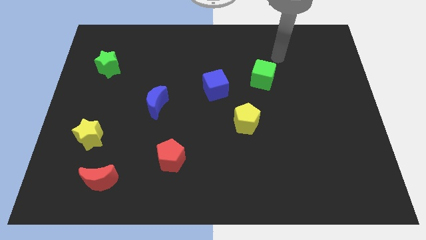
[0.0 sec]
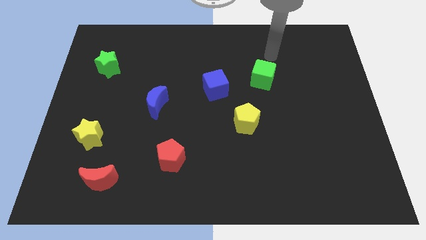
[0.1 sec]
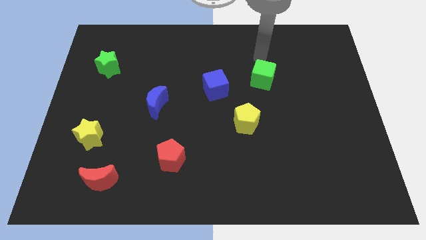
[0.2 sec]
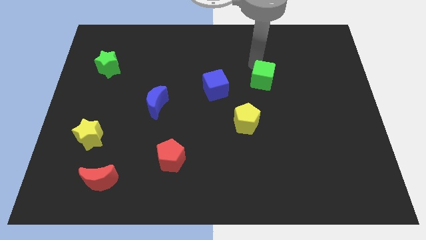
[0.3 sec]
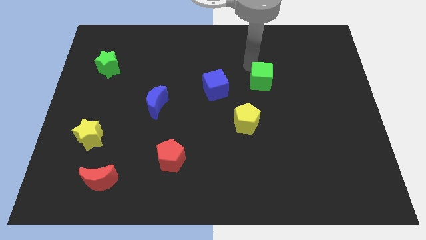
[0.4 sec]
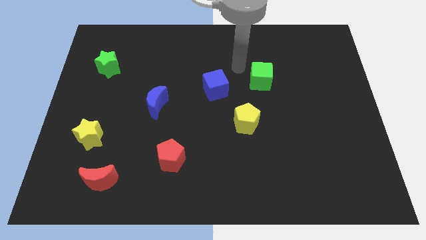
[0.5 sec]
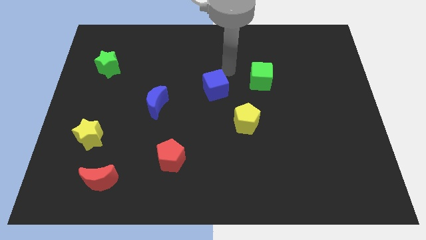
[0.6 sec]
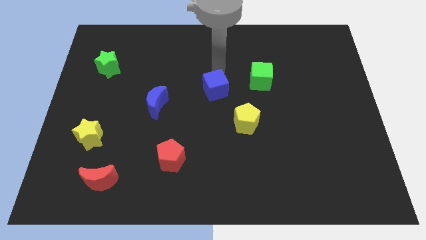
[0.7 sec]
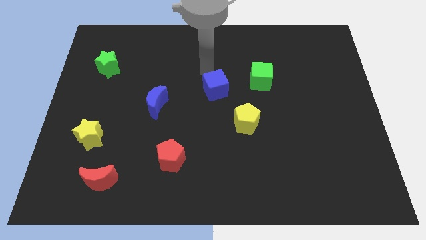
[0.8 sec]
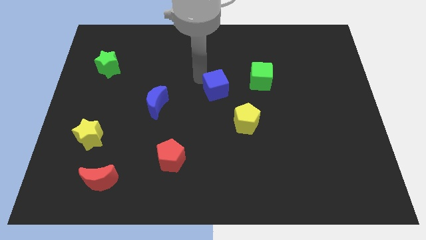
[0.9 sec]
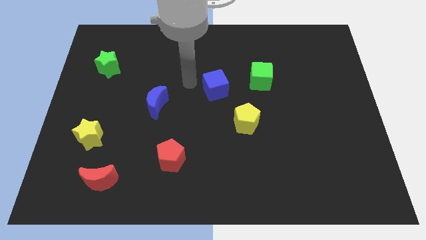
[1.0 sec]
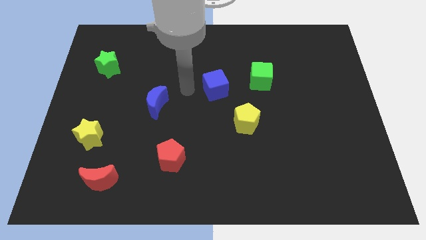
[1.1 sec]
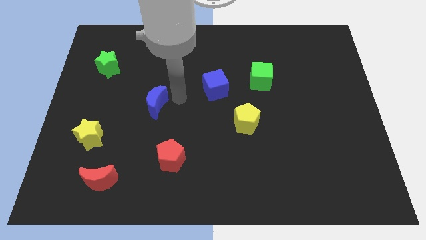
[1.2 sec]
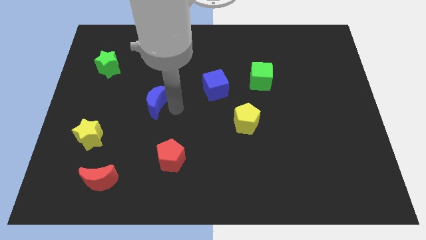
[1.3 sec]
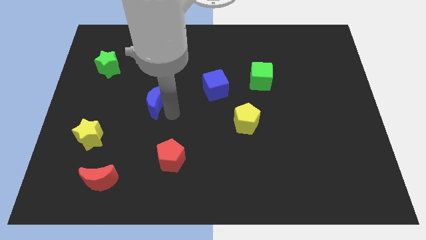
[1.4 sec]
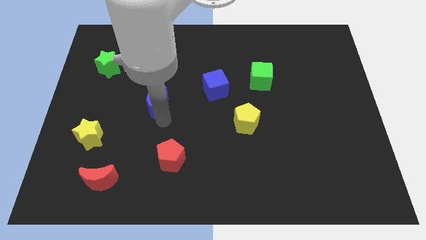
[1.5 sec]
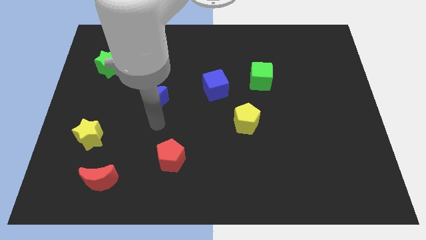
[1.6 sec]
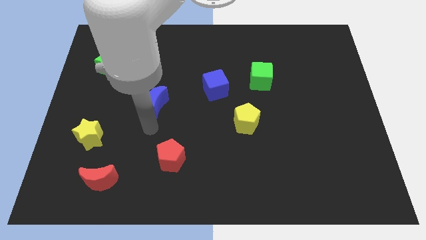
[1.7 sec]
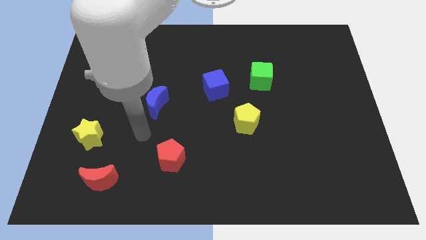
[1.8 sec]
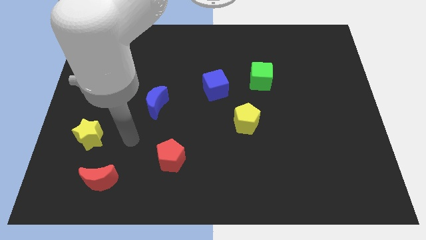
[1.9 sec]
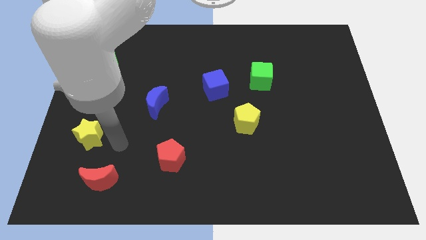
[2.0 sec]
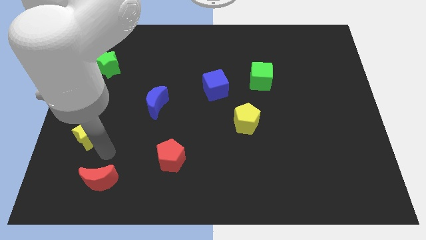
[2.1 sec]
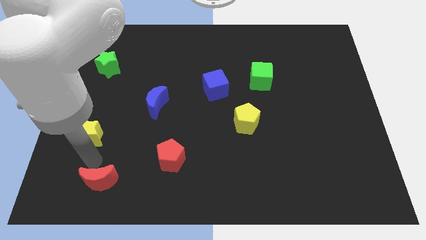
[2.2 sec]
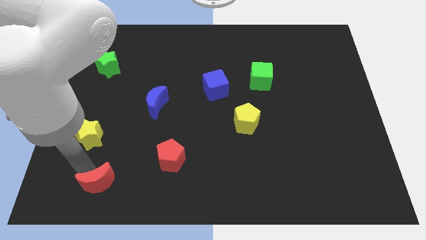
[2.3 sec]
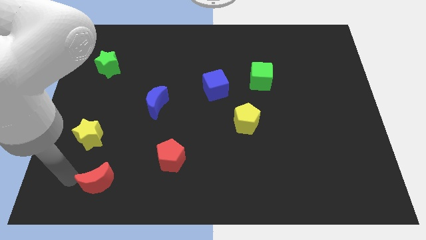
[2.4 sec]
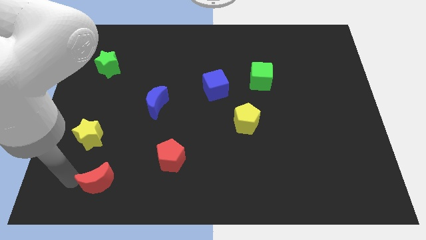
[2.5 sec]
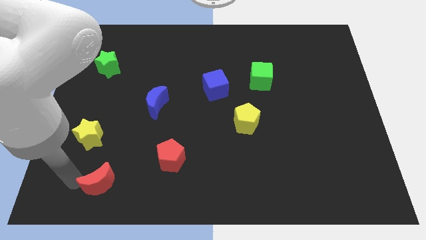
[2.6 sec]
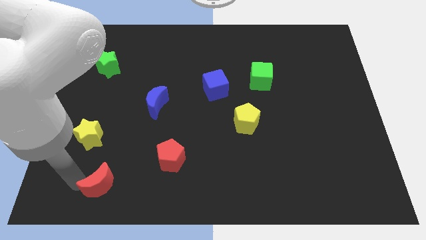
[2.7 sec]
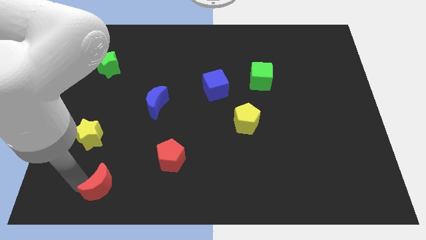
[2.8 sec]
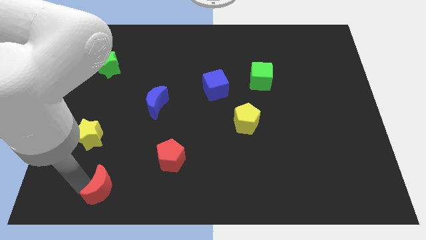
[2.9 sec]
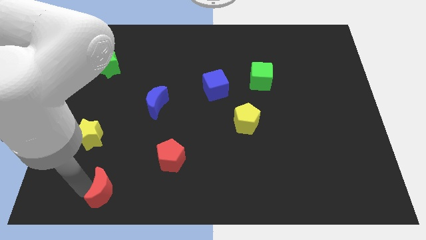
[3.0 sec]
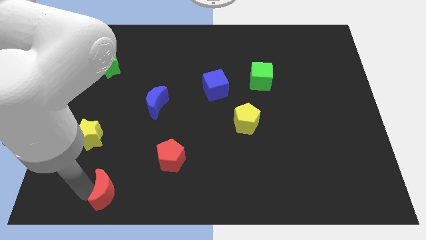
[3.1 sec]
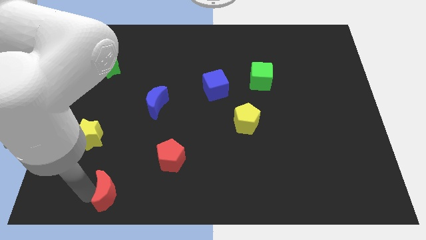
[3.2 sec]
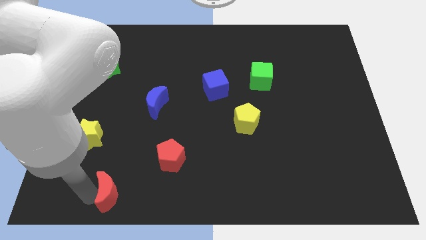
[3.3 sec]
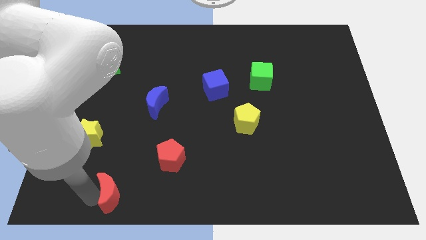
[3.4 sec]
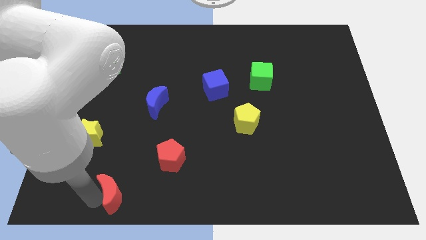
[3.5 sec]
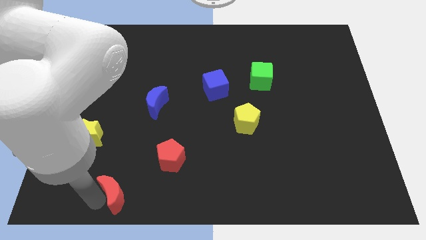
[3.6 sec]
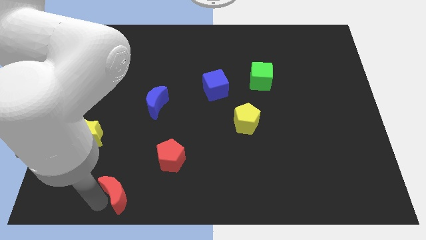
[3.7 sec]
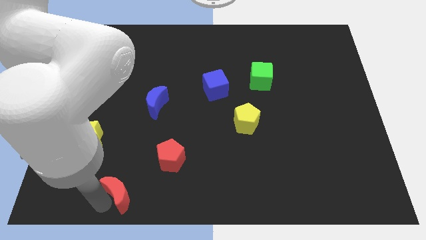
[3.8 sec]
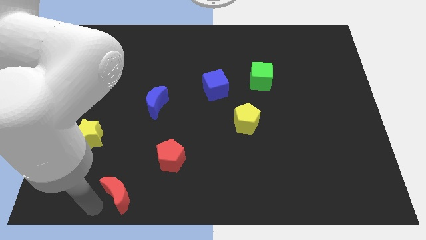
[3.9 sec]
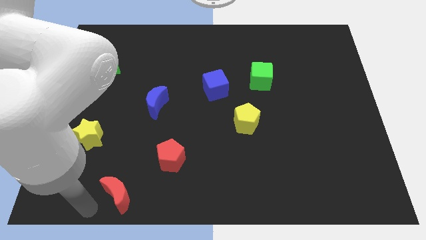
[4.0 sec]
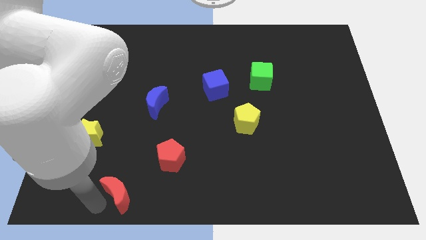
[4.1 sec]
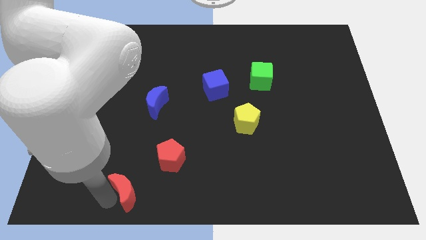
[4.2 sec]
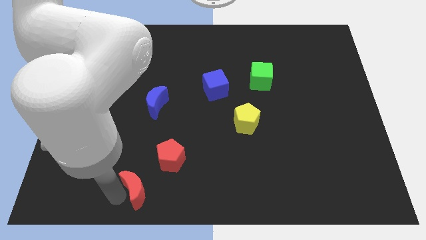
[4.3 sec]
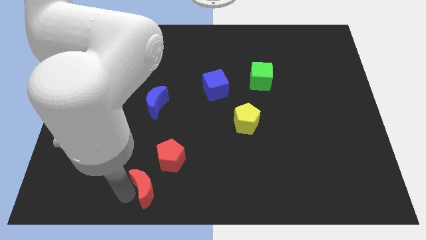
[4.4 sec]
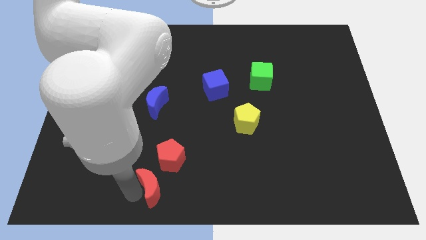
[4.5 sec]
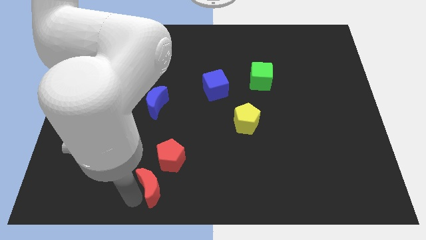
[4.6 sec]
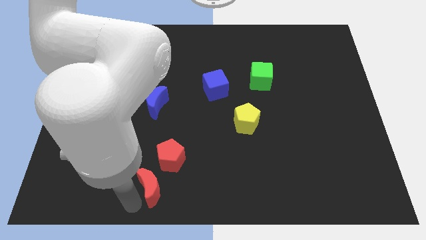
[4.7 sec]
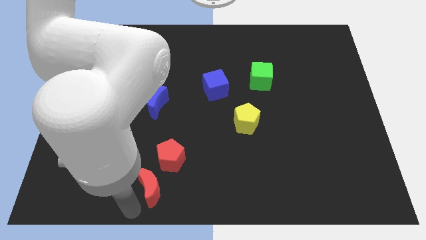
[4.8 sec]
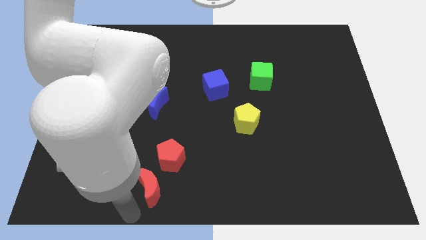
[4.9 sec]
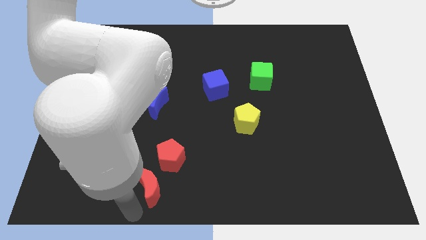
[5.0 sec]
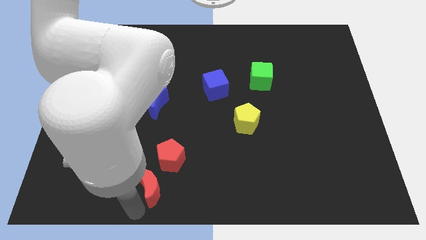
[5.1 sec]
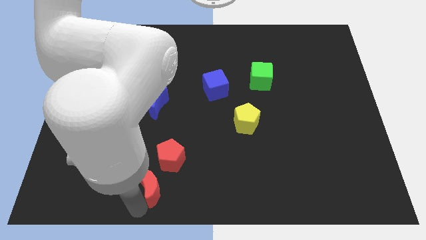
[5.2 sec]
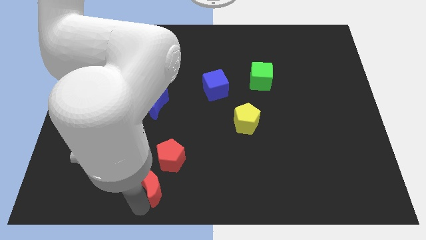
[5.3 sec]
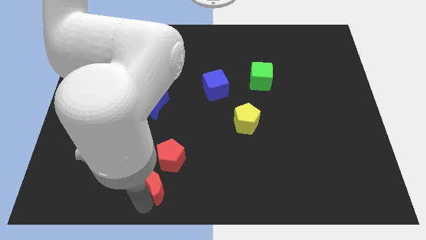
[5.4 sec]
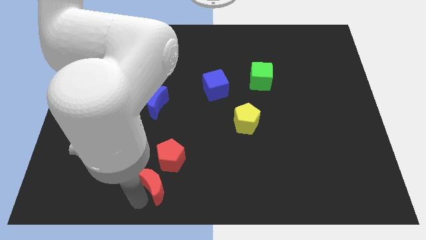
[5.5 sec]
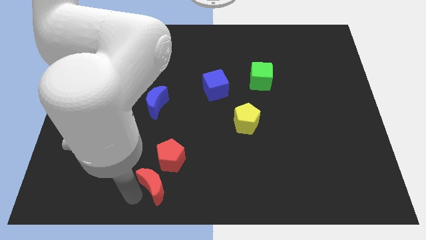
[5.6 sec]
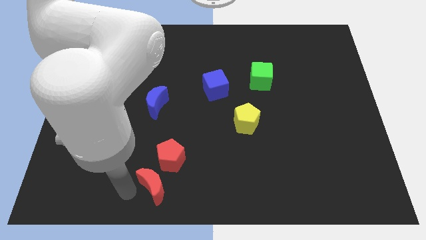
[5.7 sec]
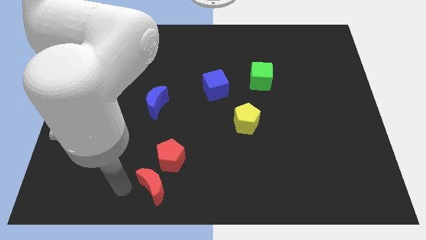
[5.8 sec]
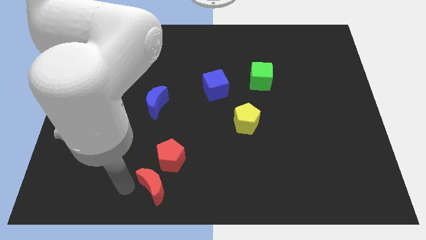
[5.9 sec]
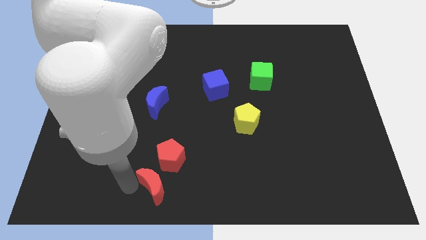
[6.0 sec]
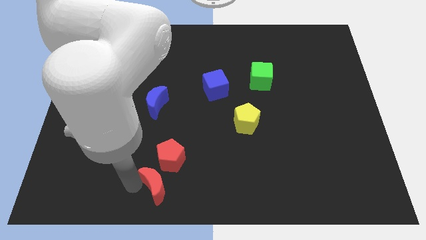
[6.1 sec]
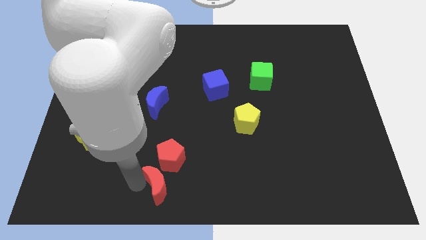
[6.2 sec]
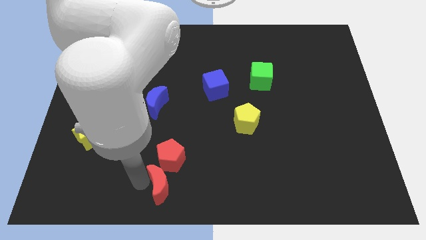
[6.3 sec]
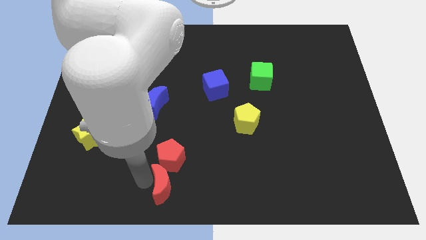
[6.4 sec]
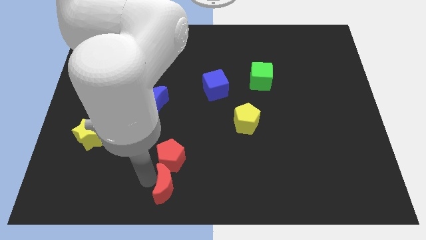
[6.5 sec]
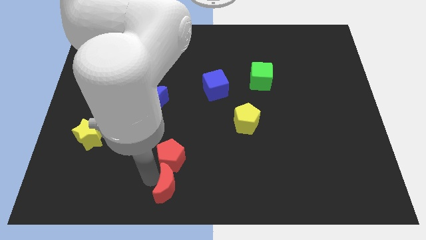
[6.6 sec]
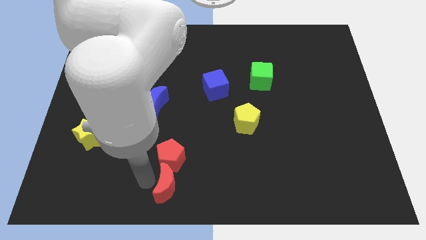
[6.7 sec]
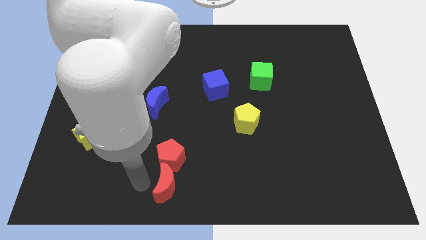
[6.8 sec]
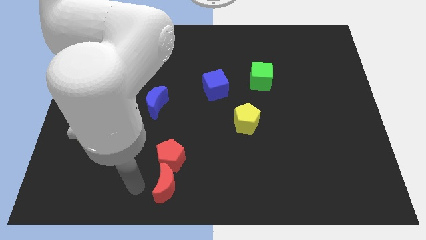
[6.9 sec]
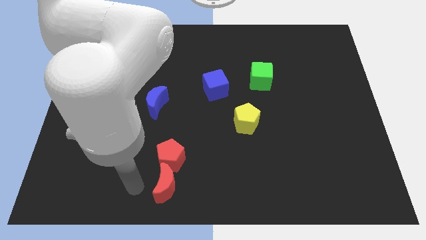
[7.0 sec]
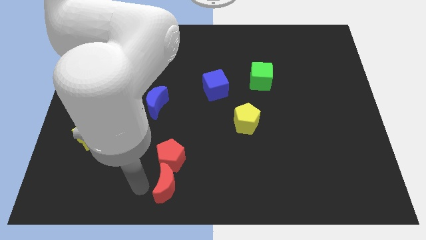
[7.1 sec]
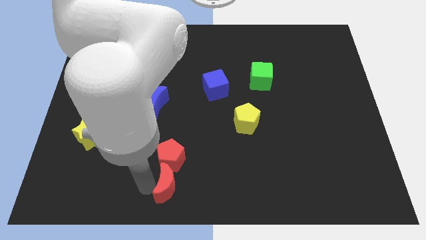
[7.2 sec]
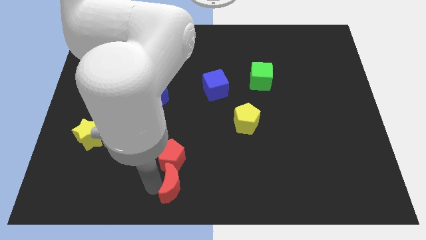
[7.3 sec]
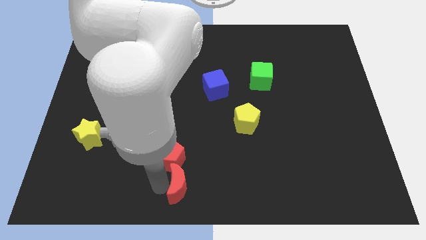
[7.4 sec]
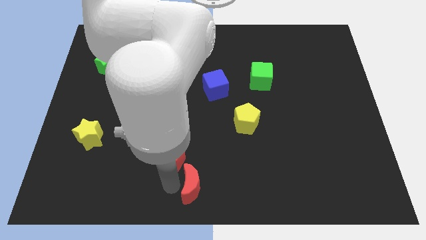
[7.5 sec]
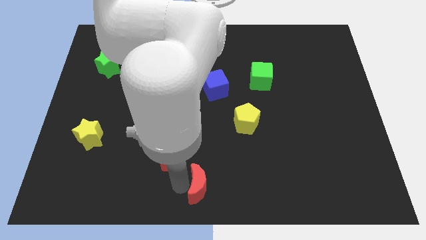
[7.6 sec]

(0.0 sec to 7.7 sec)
push the red moon to the right

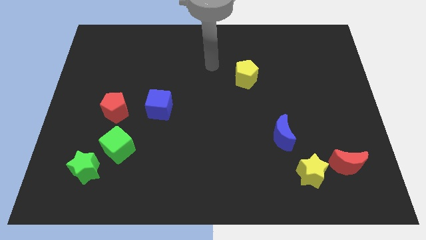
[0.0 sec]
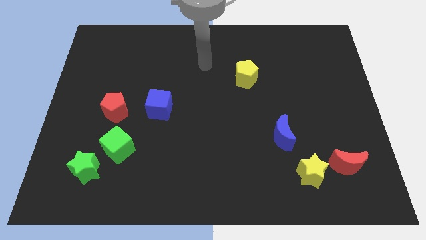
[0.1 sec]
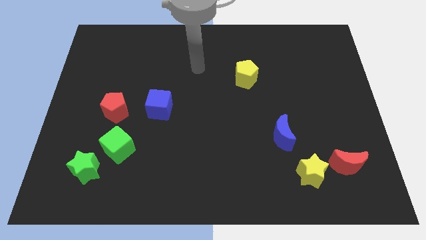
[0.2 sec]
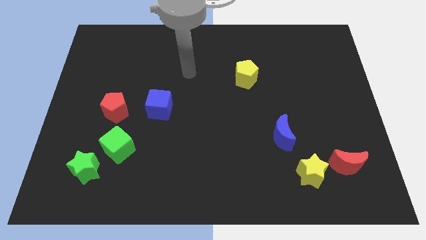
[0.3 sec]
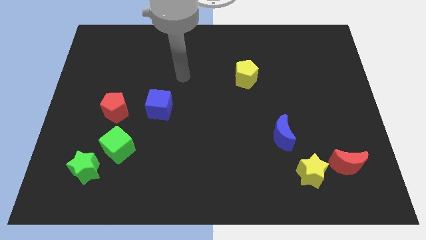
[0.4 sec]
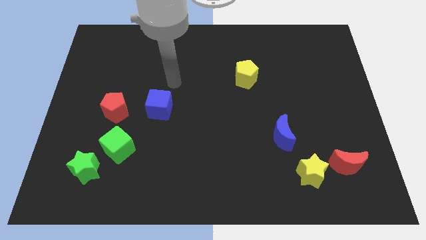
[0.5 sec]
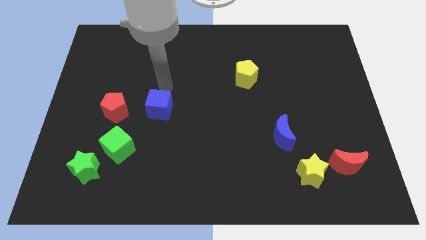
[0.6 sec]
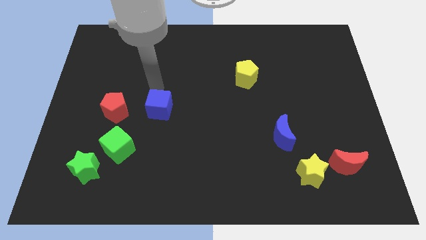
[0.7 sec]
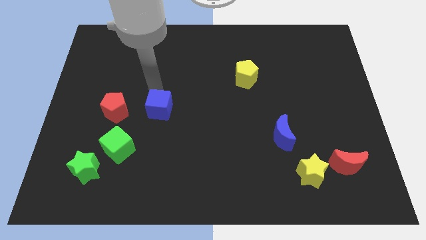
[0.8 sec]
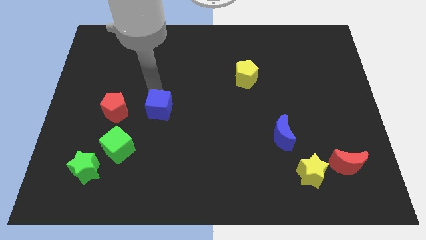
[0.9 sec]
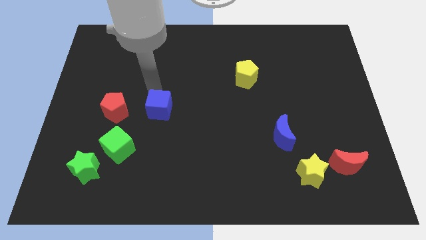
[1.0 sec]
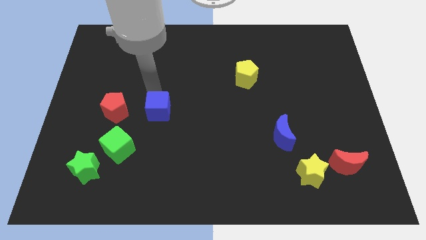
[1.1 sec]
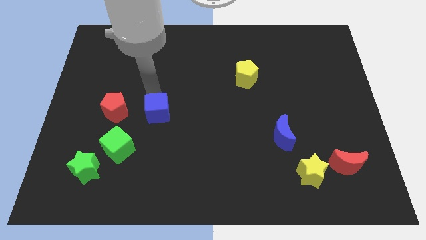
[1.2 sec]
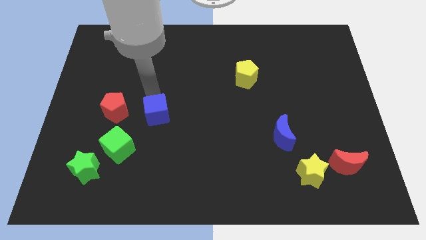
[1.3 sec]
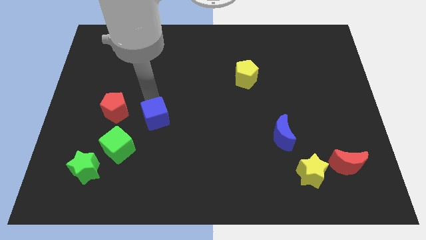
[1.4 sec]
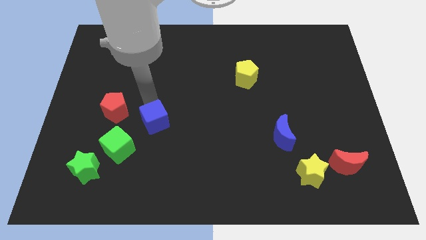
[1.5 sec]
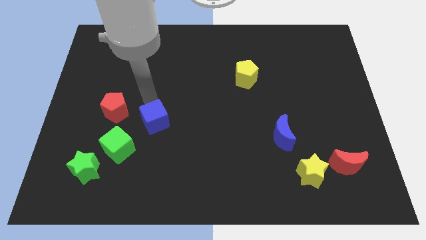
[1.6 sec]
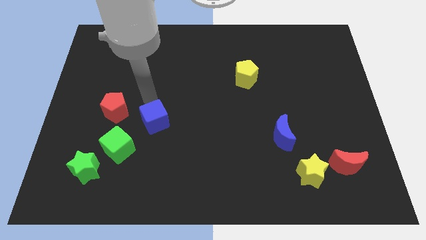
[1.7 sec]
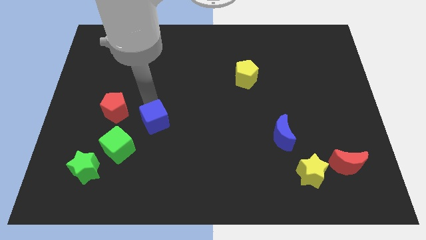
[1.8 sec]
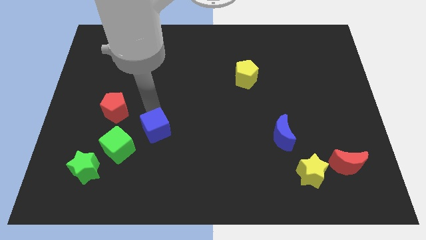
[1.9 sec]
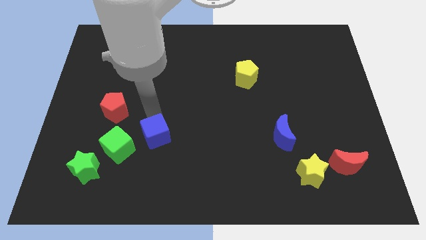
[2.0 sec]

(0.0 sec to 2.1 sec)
slide the blue cube downwards a bit
